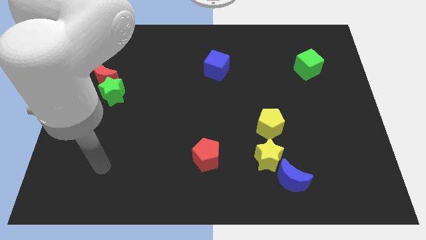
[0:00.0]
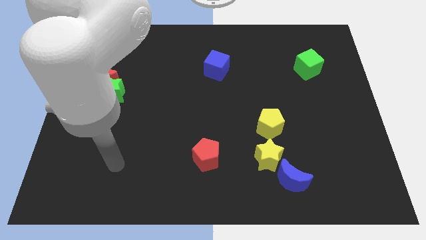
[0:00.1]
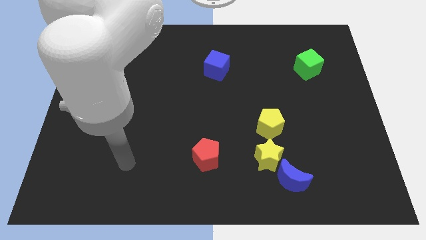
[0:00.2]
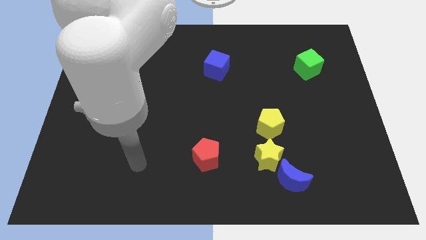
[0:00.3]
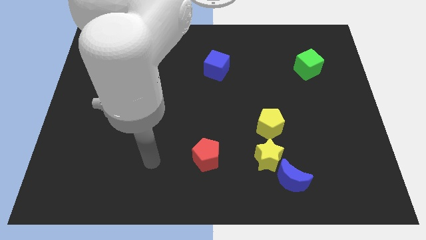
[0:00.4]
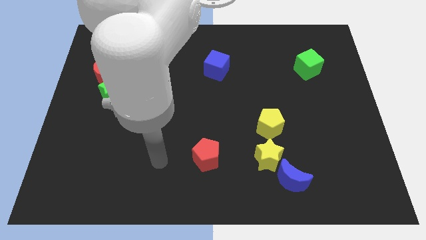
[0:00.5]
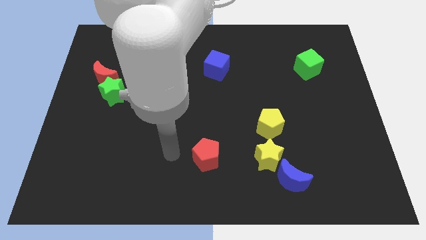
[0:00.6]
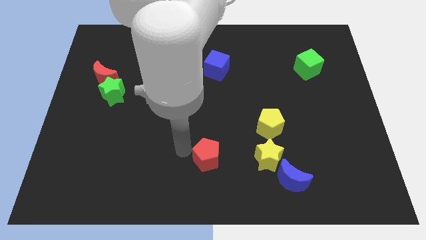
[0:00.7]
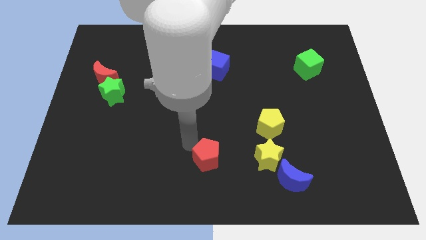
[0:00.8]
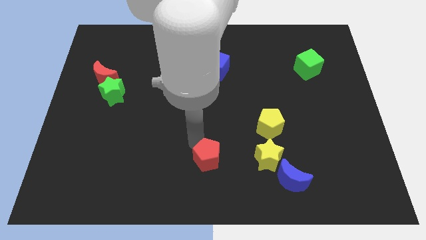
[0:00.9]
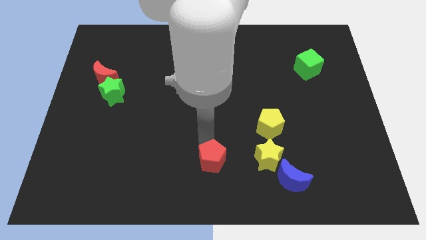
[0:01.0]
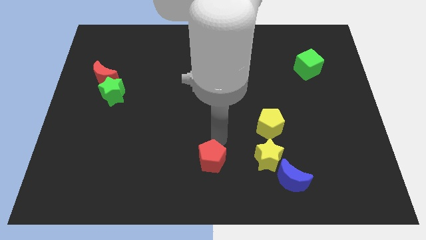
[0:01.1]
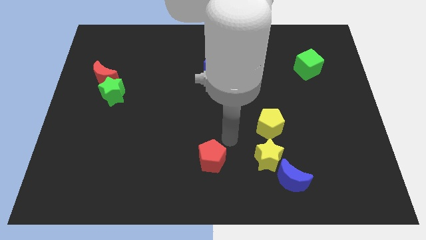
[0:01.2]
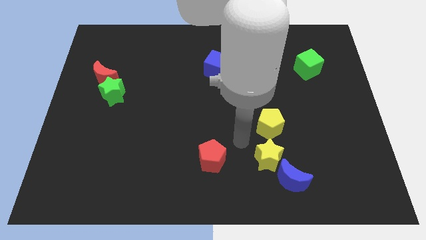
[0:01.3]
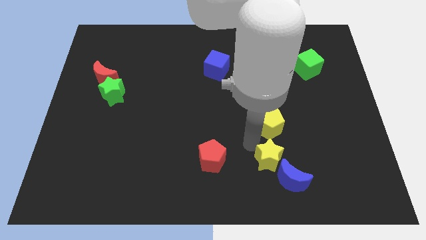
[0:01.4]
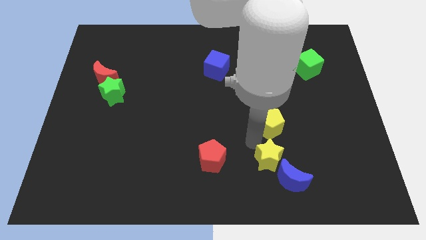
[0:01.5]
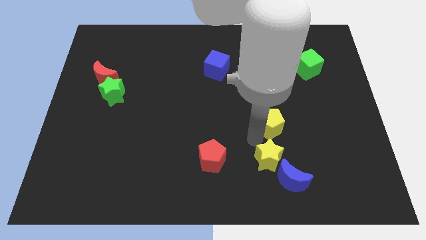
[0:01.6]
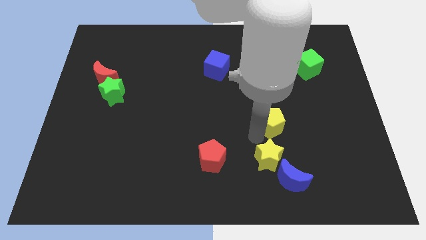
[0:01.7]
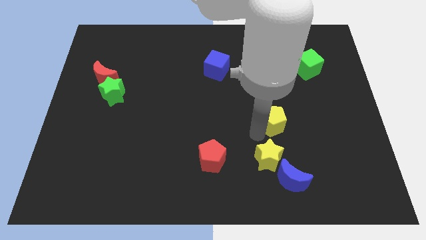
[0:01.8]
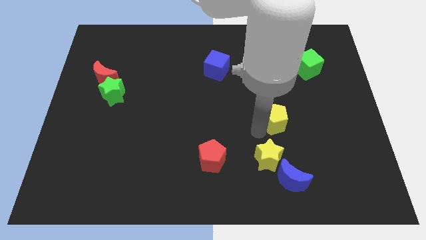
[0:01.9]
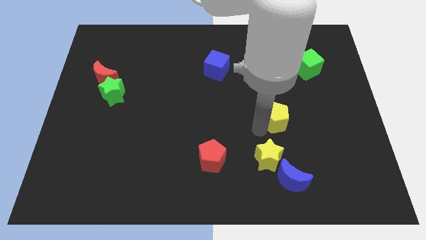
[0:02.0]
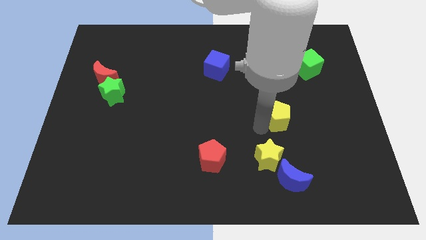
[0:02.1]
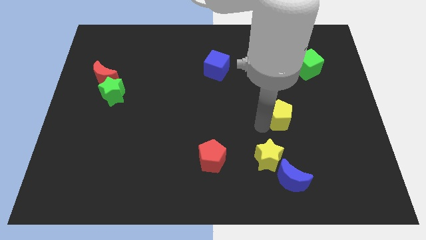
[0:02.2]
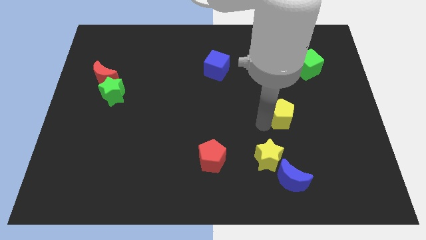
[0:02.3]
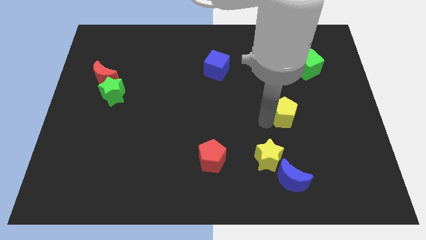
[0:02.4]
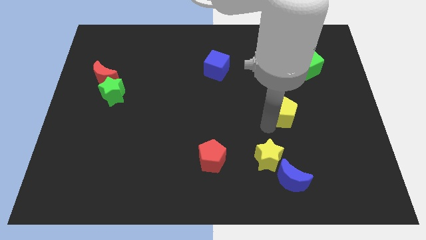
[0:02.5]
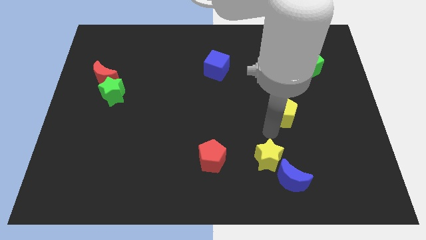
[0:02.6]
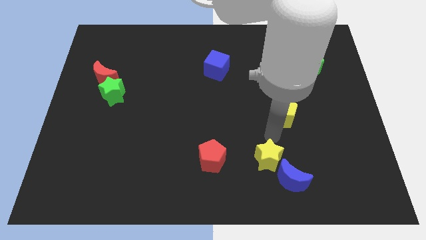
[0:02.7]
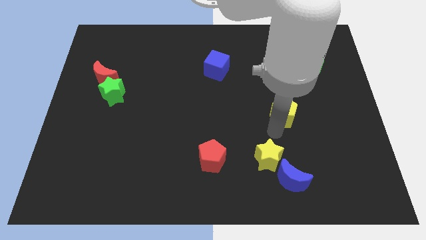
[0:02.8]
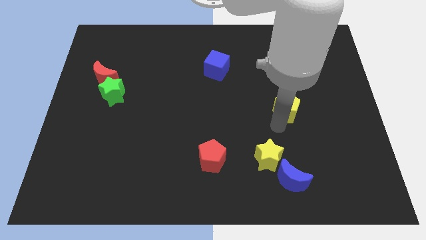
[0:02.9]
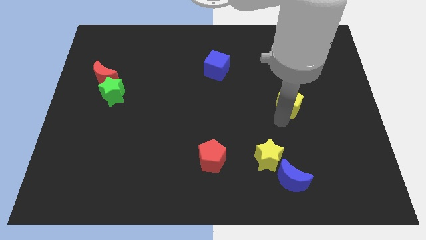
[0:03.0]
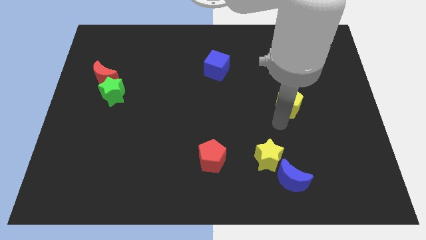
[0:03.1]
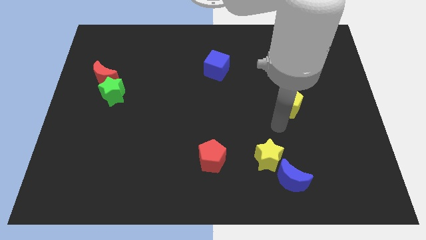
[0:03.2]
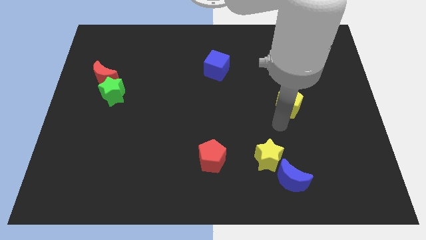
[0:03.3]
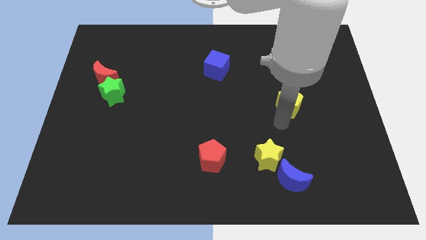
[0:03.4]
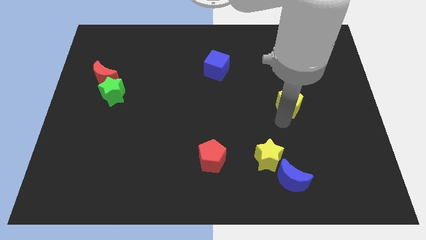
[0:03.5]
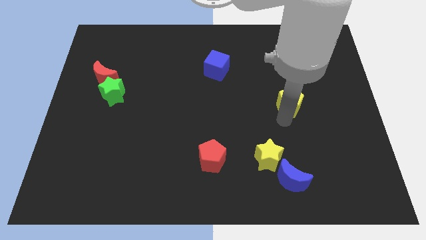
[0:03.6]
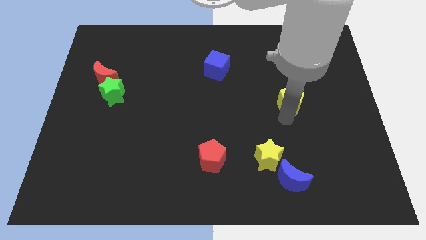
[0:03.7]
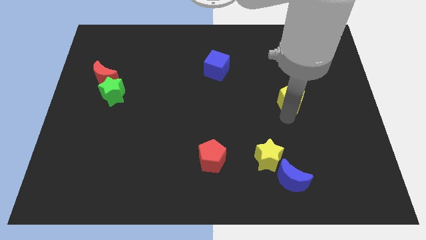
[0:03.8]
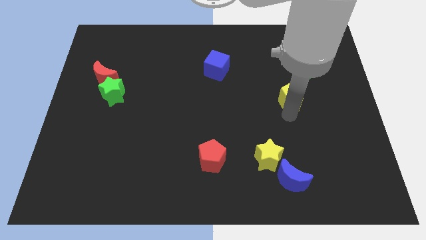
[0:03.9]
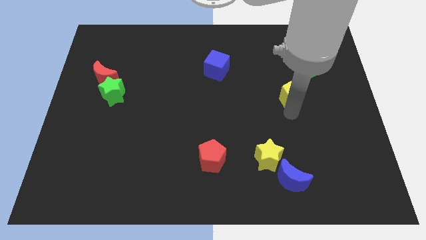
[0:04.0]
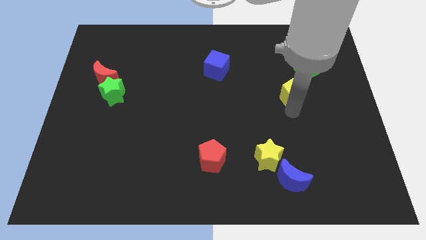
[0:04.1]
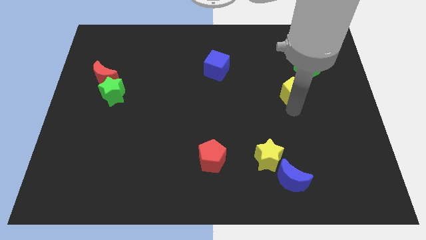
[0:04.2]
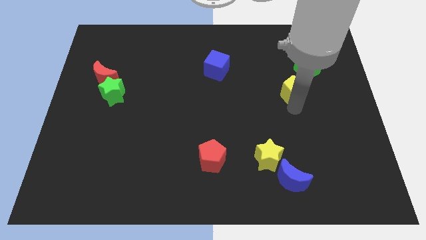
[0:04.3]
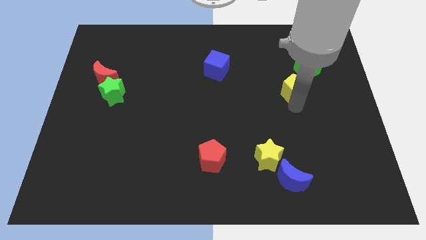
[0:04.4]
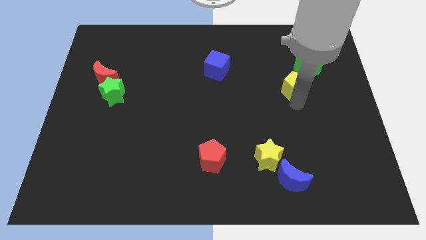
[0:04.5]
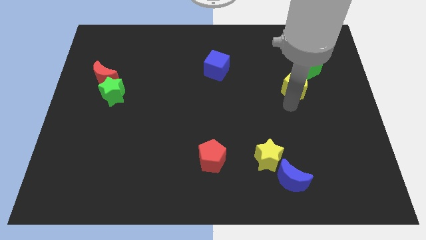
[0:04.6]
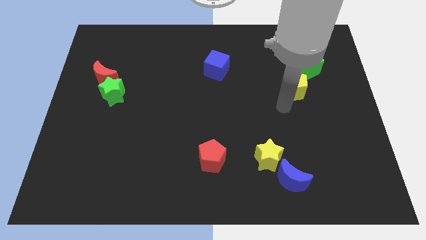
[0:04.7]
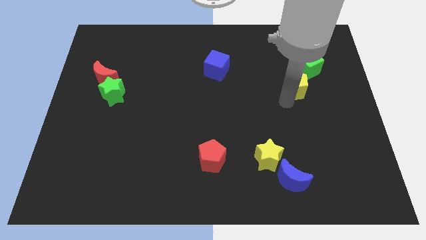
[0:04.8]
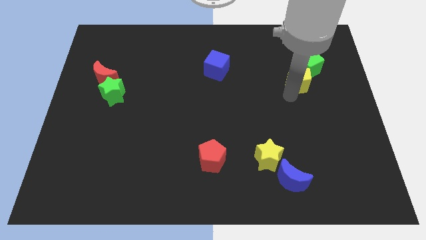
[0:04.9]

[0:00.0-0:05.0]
push the yellow pentagon next to the green cube

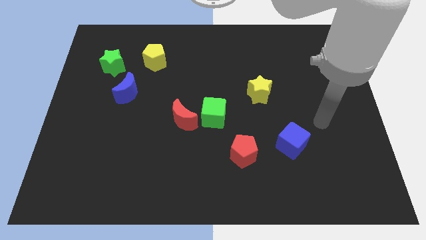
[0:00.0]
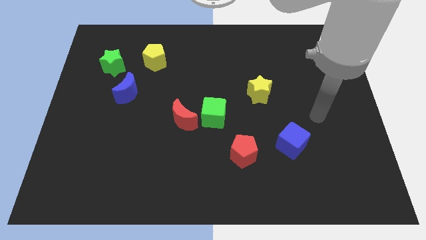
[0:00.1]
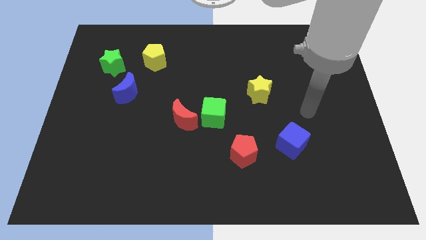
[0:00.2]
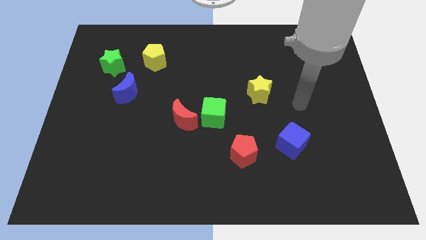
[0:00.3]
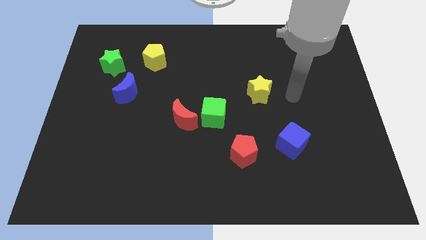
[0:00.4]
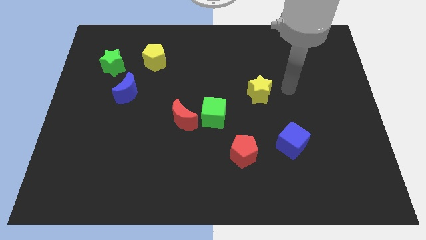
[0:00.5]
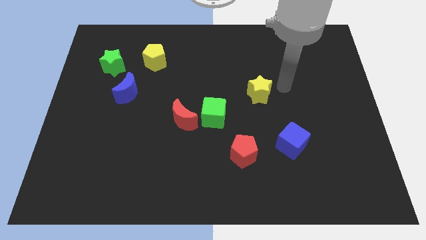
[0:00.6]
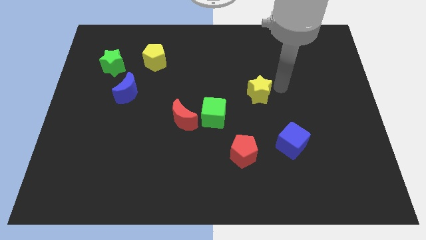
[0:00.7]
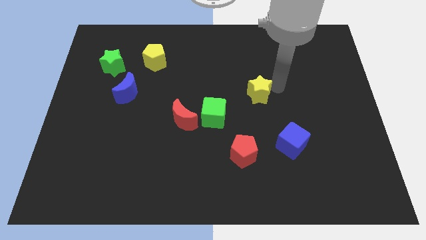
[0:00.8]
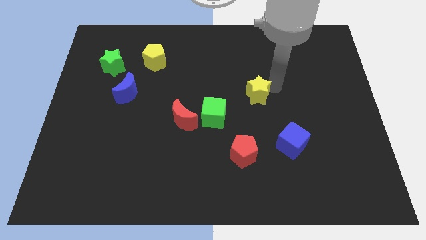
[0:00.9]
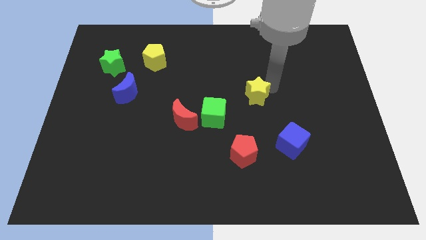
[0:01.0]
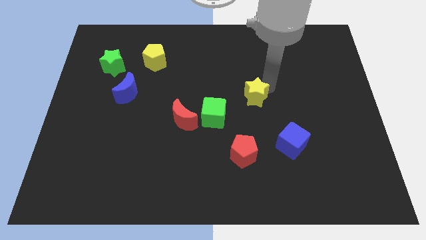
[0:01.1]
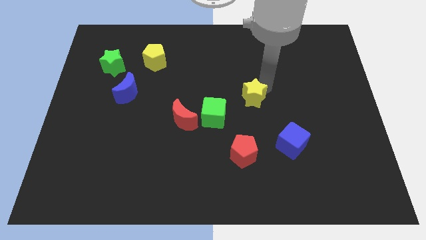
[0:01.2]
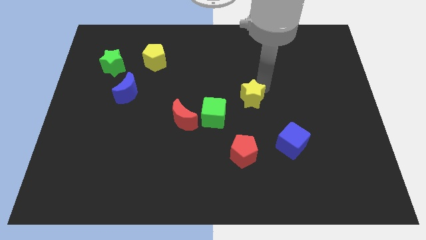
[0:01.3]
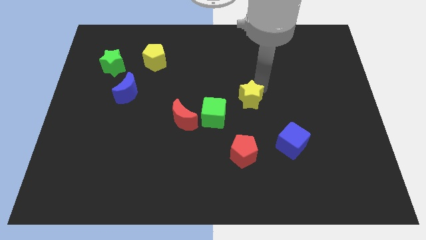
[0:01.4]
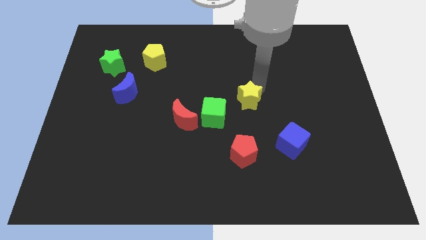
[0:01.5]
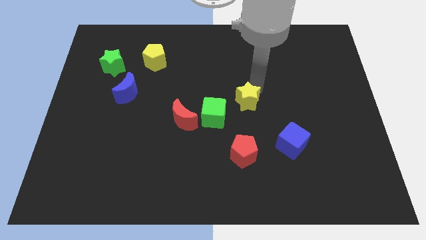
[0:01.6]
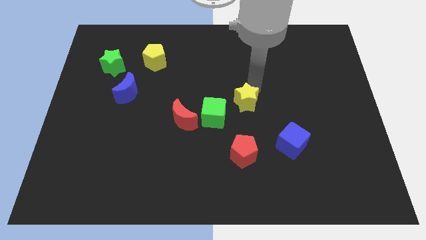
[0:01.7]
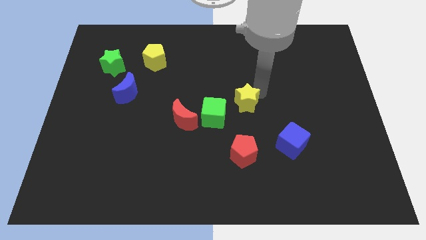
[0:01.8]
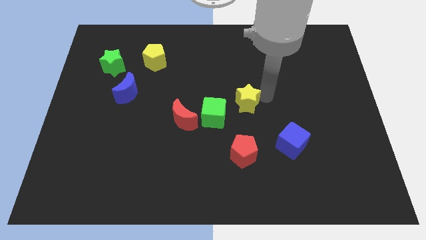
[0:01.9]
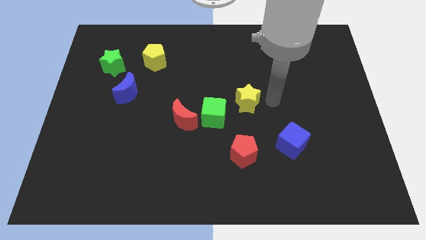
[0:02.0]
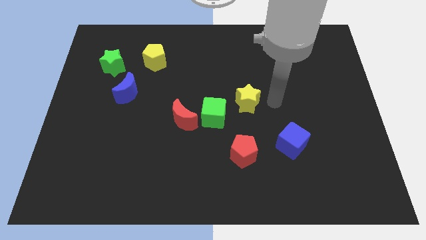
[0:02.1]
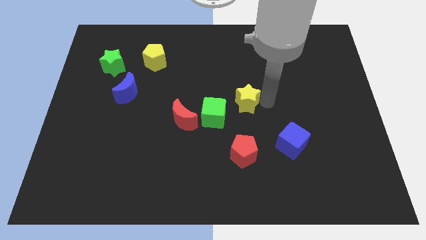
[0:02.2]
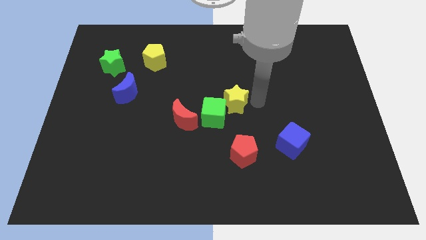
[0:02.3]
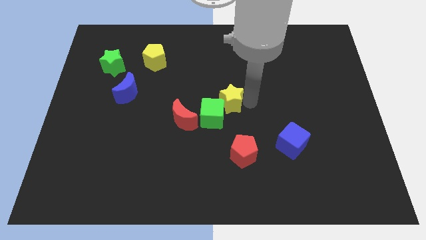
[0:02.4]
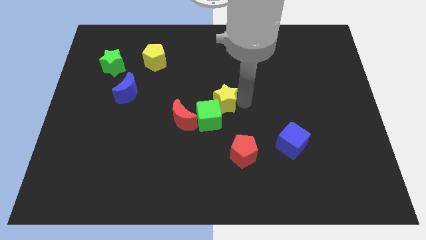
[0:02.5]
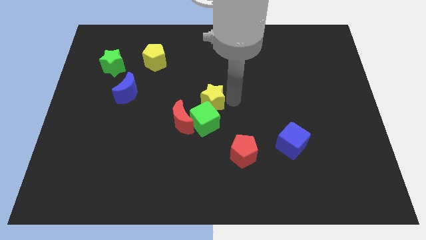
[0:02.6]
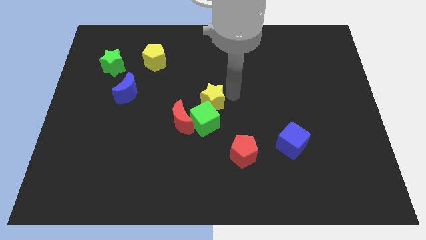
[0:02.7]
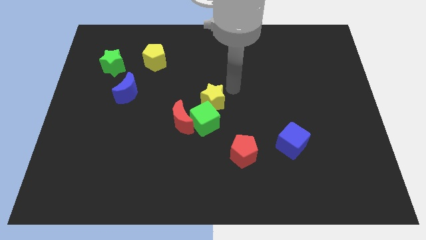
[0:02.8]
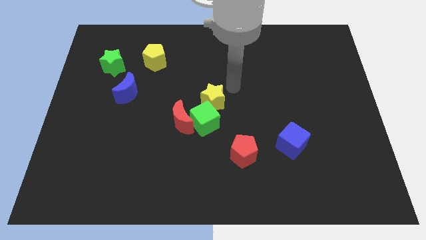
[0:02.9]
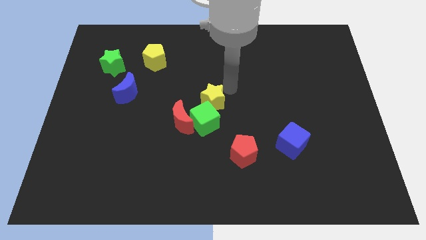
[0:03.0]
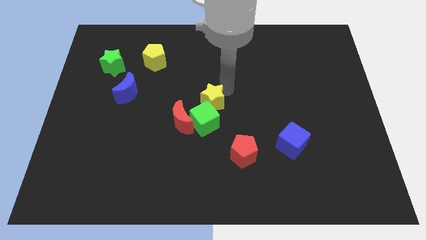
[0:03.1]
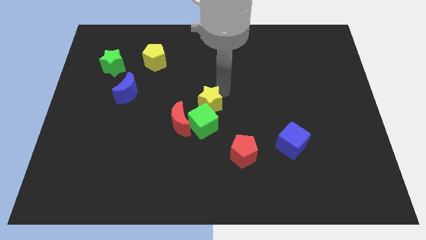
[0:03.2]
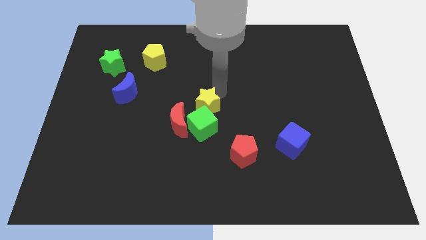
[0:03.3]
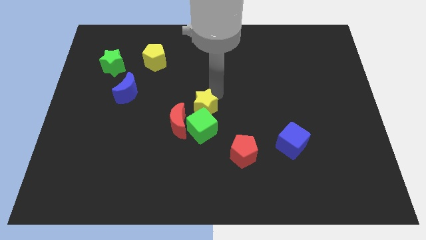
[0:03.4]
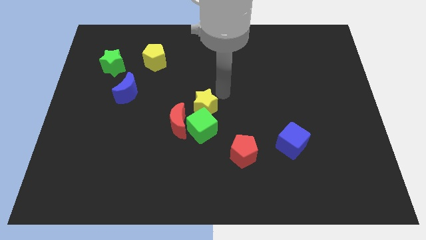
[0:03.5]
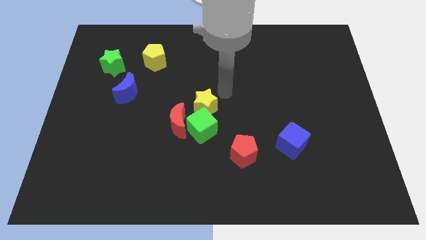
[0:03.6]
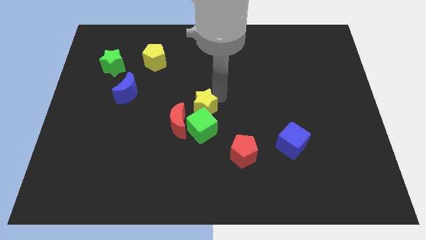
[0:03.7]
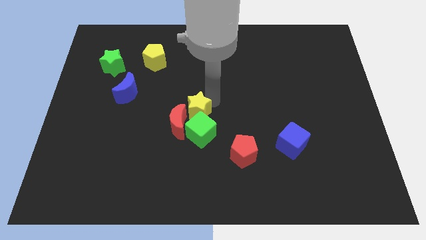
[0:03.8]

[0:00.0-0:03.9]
slide the yellow star close to the red moon
